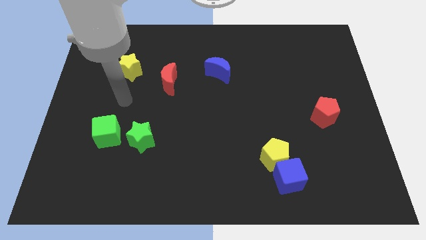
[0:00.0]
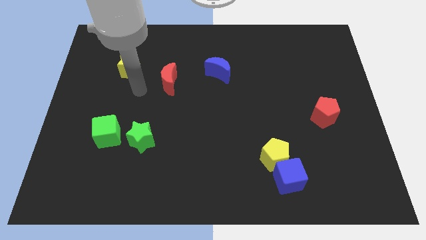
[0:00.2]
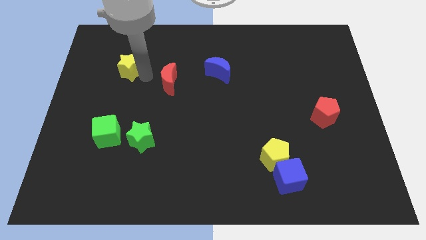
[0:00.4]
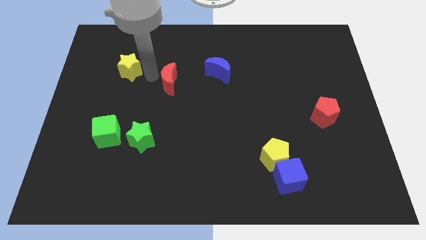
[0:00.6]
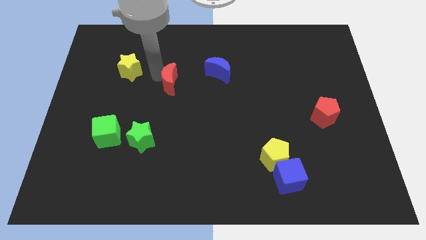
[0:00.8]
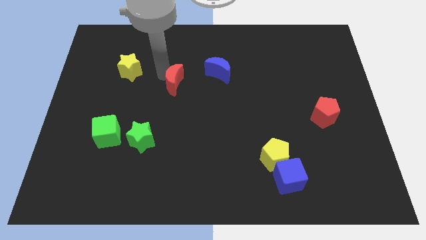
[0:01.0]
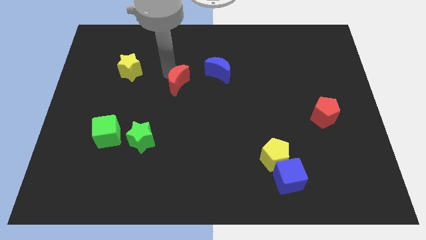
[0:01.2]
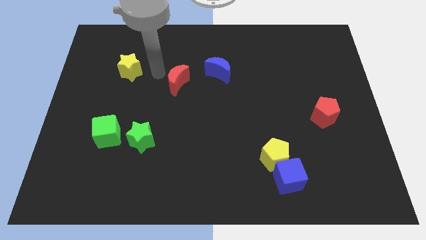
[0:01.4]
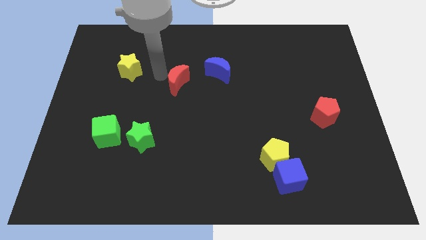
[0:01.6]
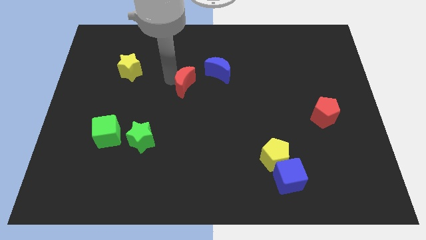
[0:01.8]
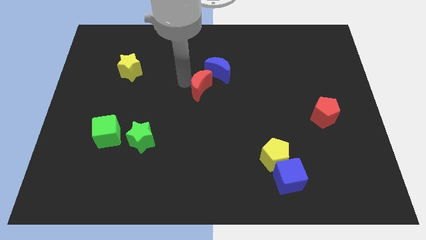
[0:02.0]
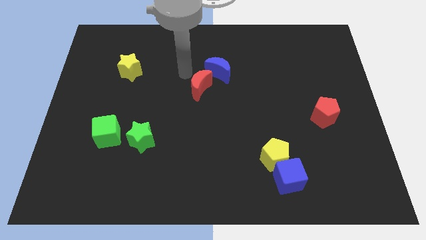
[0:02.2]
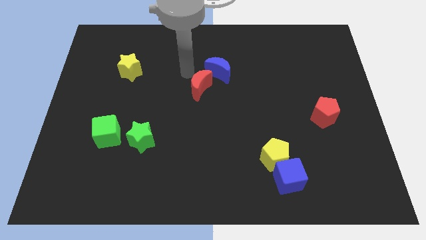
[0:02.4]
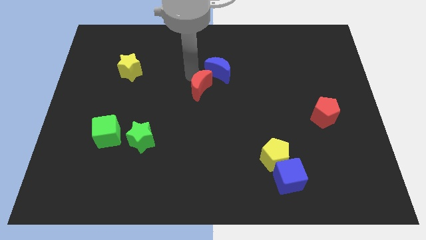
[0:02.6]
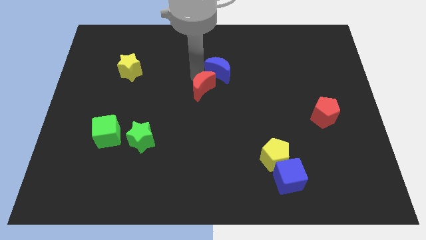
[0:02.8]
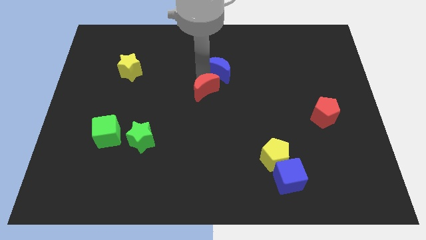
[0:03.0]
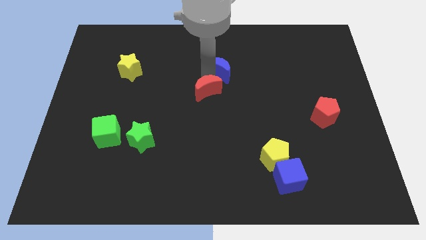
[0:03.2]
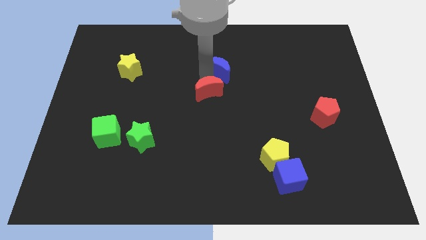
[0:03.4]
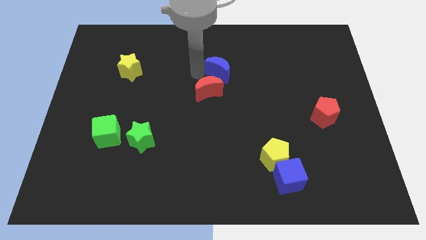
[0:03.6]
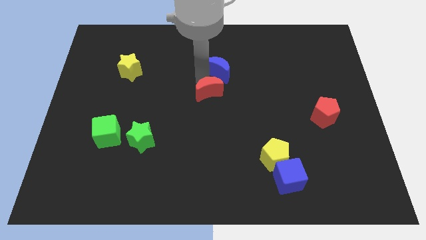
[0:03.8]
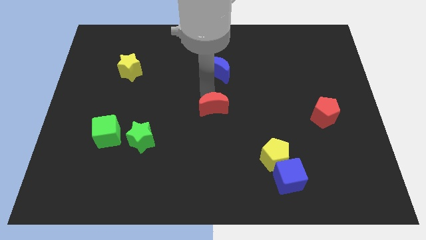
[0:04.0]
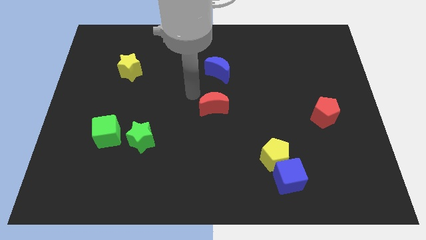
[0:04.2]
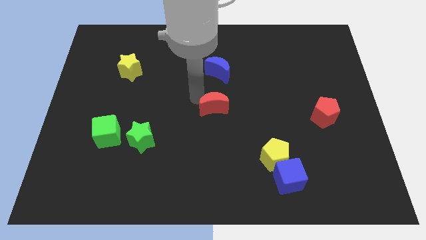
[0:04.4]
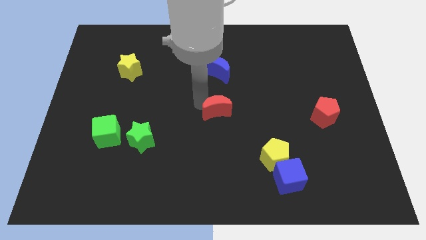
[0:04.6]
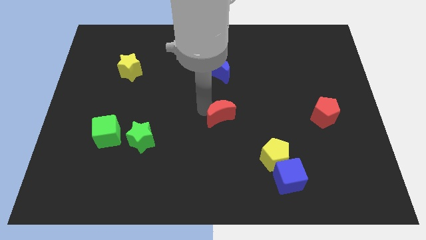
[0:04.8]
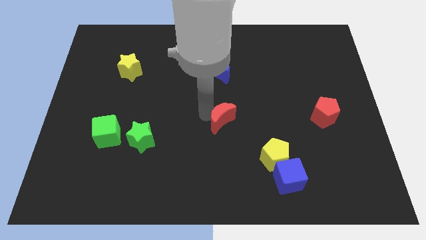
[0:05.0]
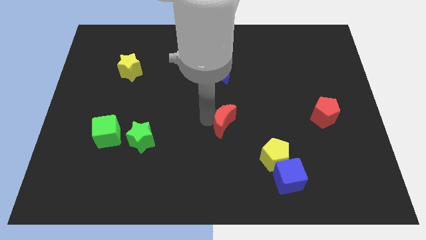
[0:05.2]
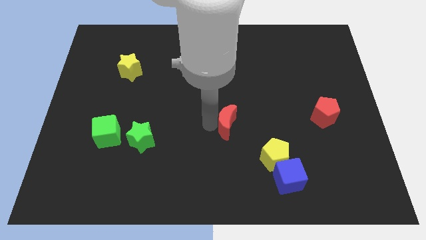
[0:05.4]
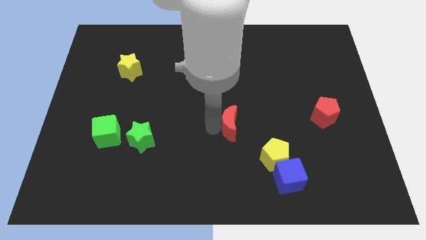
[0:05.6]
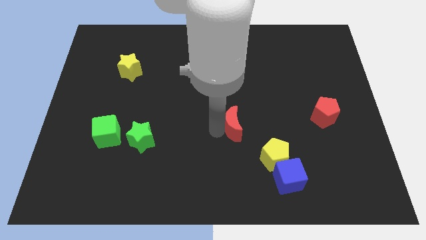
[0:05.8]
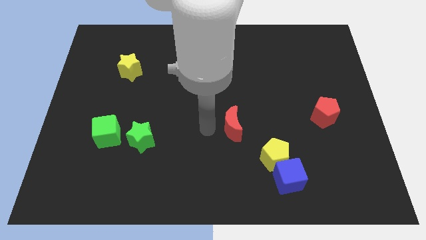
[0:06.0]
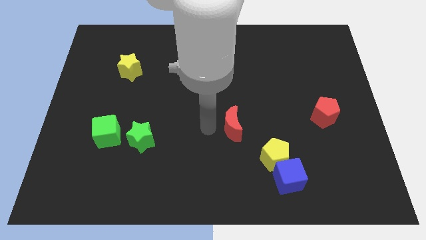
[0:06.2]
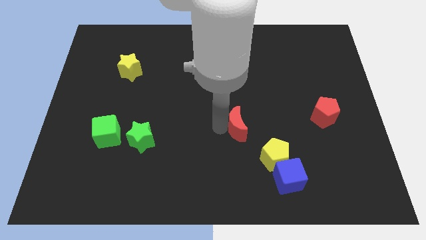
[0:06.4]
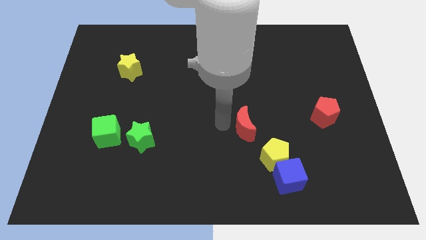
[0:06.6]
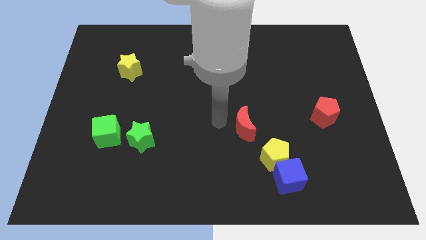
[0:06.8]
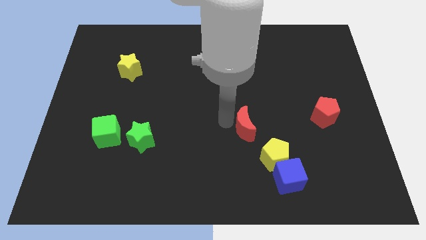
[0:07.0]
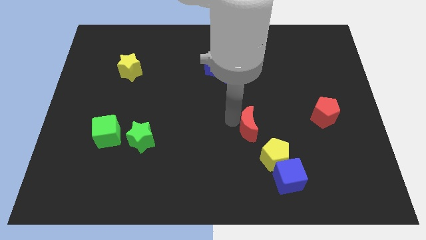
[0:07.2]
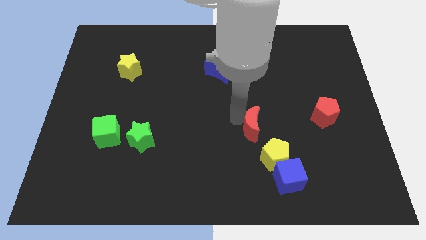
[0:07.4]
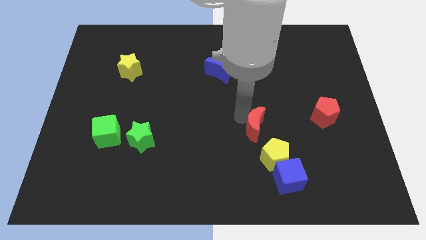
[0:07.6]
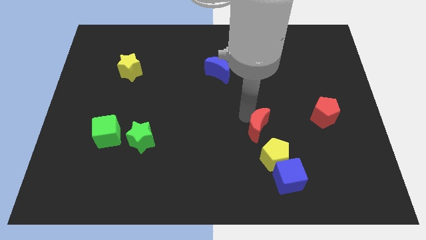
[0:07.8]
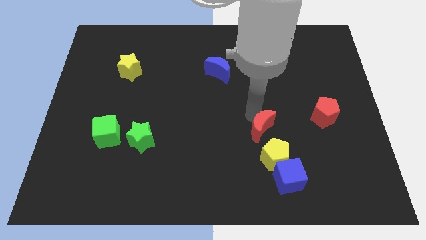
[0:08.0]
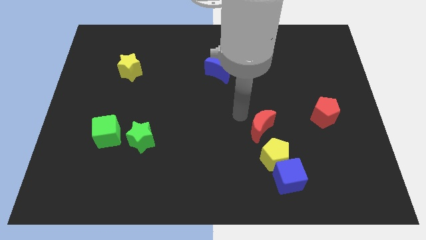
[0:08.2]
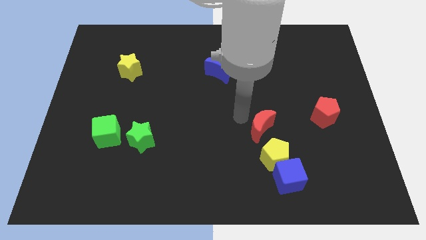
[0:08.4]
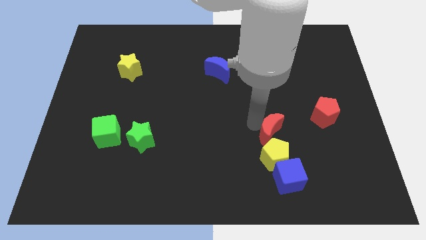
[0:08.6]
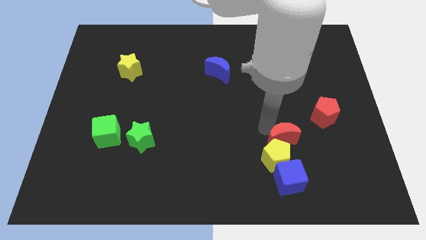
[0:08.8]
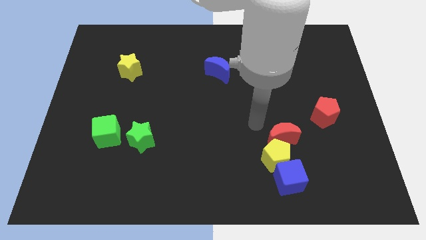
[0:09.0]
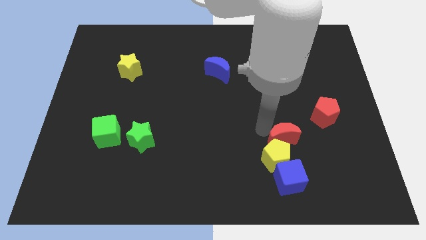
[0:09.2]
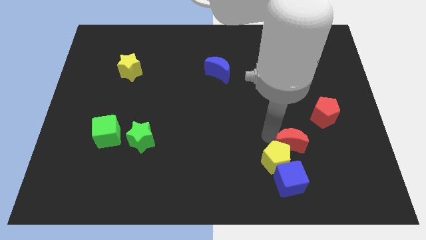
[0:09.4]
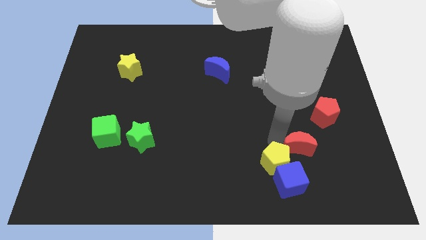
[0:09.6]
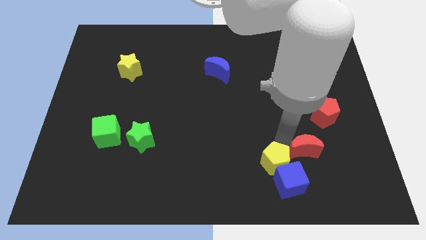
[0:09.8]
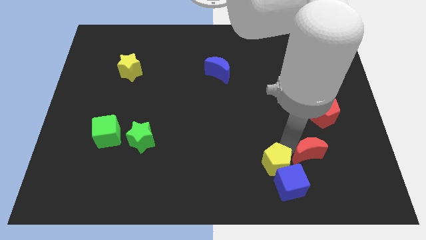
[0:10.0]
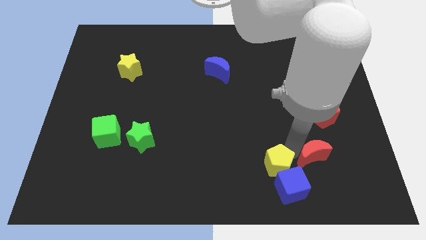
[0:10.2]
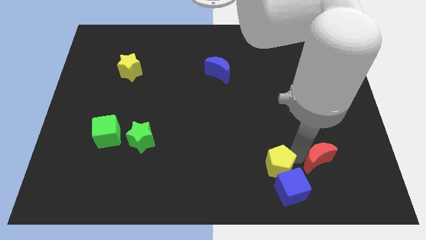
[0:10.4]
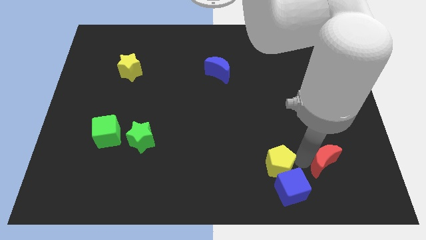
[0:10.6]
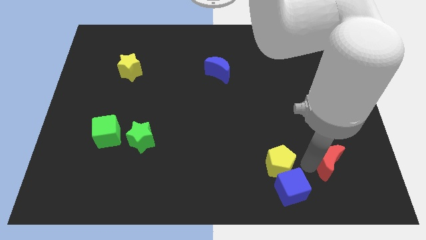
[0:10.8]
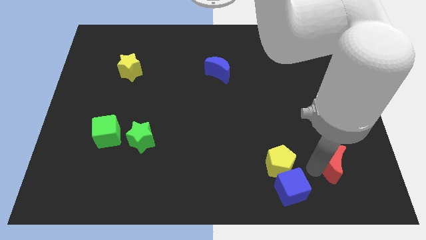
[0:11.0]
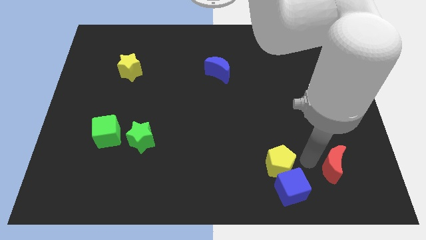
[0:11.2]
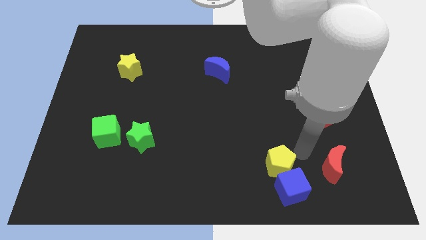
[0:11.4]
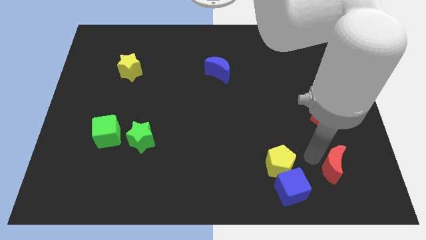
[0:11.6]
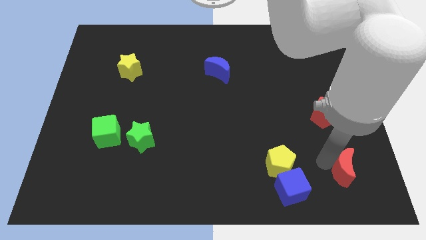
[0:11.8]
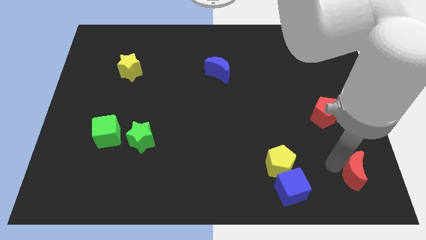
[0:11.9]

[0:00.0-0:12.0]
push the red moon to the bottom right corner

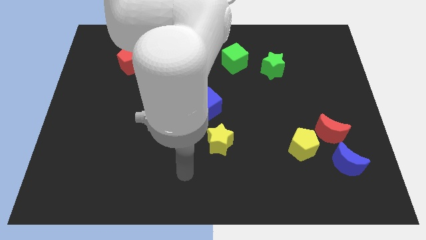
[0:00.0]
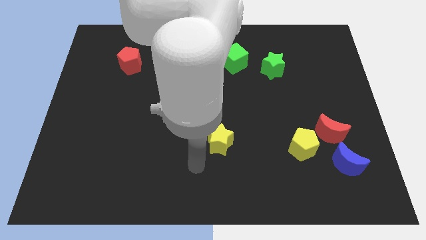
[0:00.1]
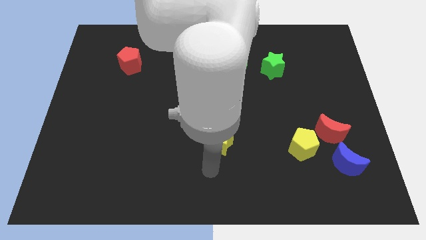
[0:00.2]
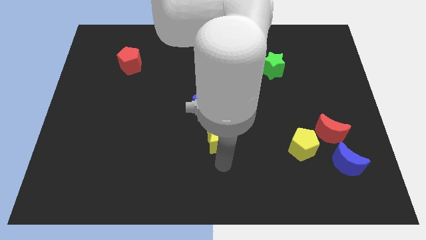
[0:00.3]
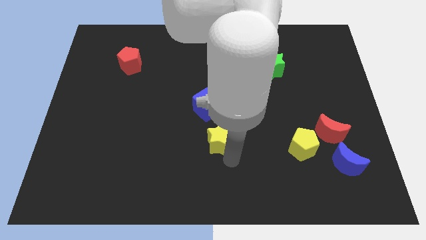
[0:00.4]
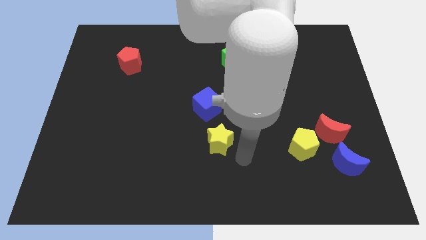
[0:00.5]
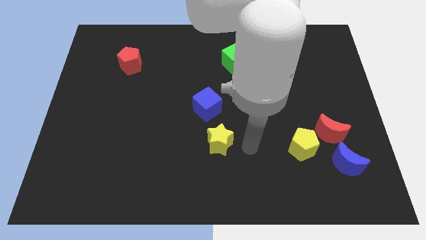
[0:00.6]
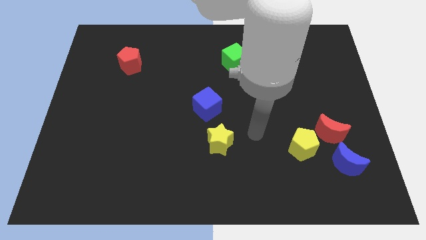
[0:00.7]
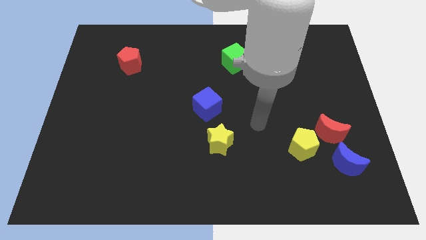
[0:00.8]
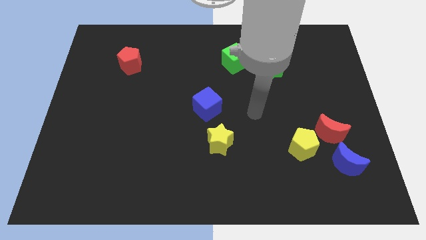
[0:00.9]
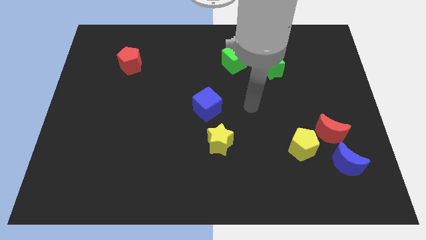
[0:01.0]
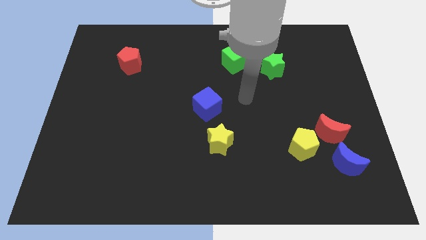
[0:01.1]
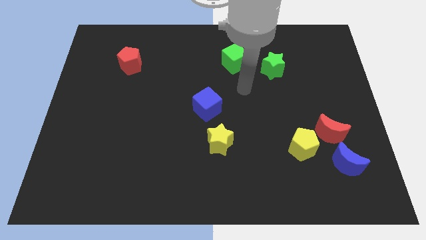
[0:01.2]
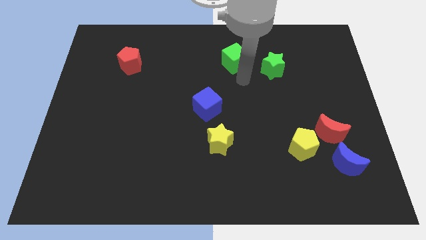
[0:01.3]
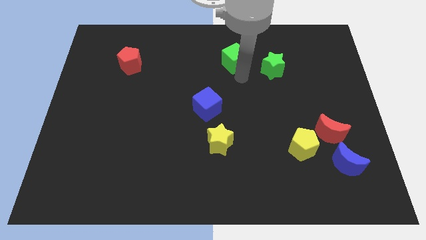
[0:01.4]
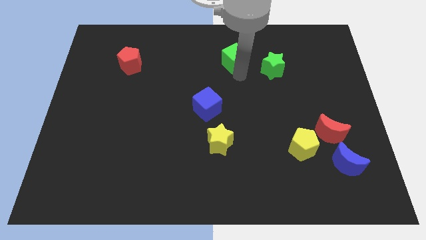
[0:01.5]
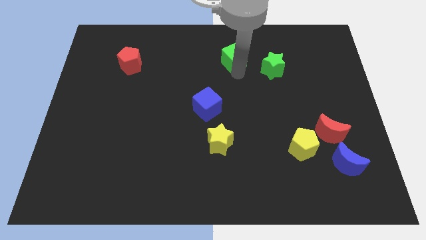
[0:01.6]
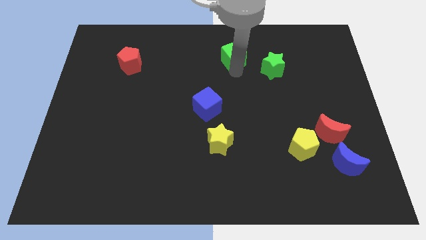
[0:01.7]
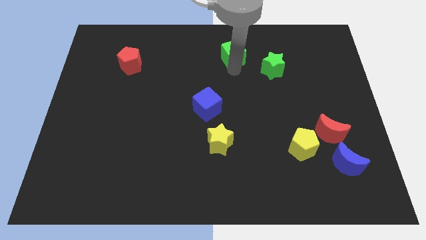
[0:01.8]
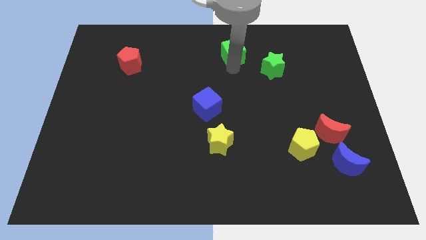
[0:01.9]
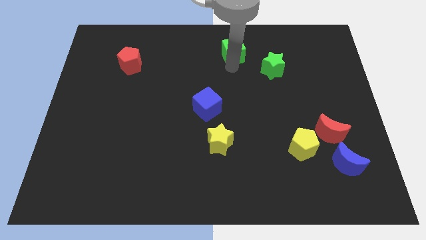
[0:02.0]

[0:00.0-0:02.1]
push the green cube to the top side
